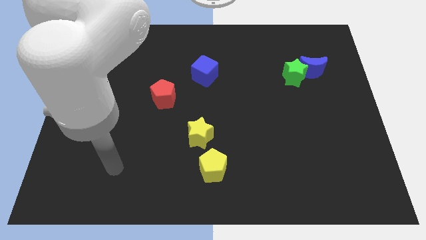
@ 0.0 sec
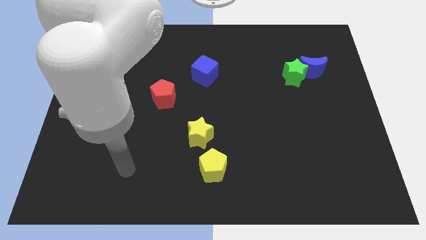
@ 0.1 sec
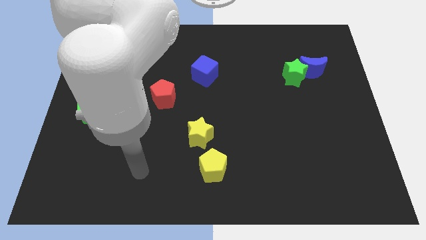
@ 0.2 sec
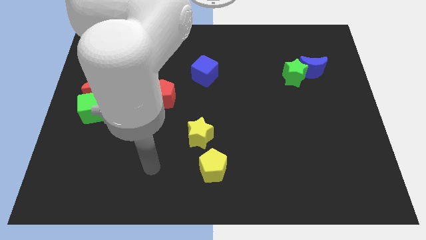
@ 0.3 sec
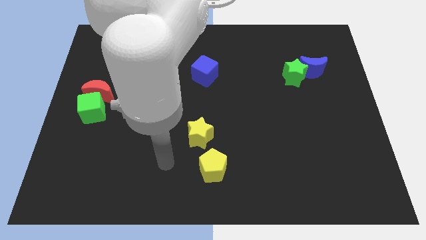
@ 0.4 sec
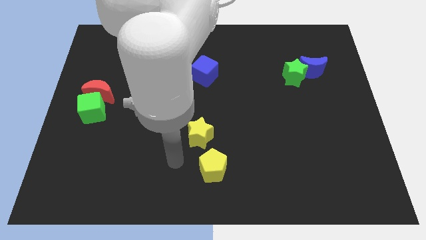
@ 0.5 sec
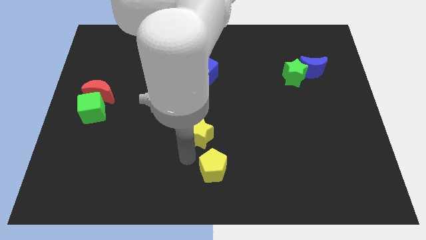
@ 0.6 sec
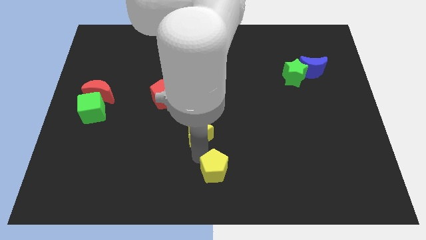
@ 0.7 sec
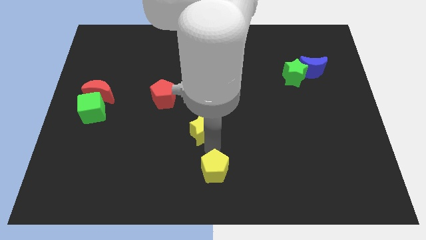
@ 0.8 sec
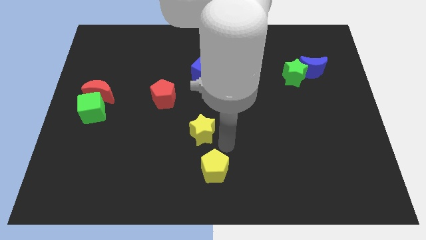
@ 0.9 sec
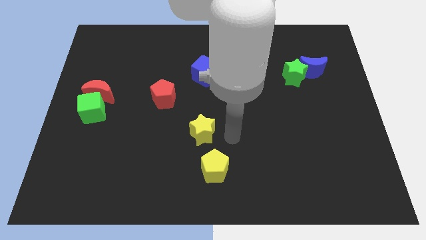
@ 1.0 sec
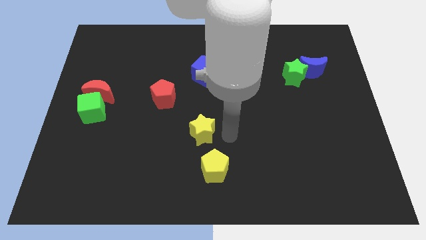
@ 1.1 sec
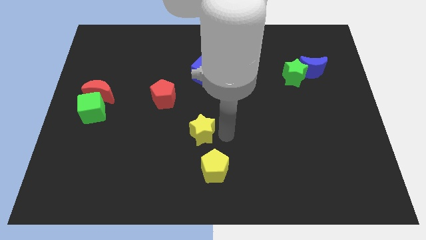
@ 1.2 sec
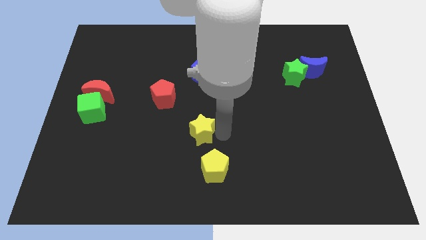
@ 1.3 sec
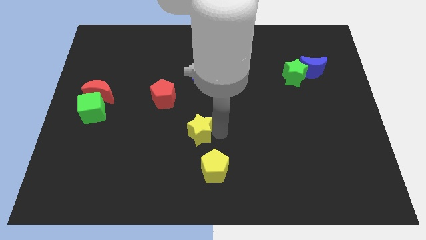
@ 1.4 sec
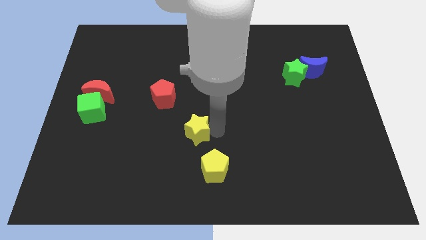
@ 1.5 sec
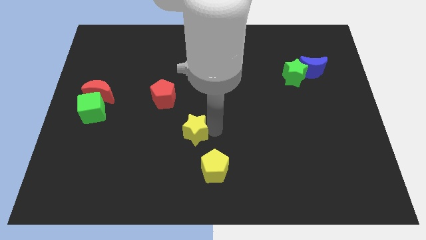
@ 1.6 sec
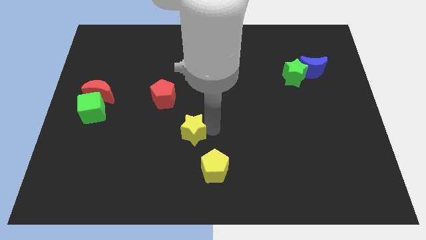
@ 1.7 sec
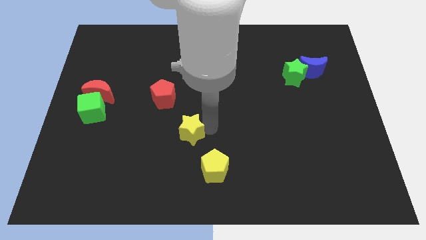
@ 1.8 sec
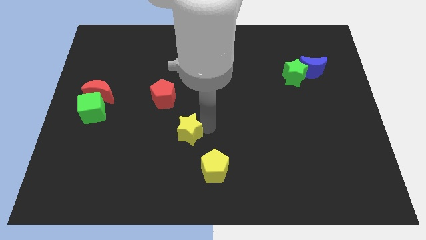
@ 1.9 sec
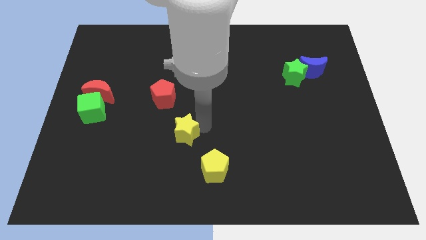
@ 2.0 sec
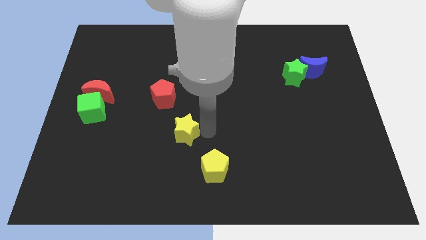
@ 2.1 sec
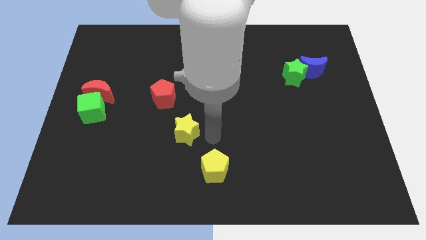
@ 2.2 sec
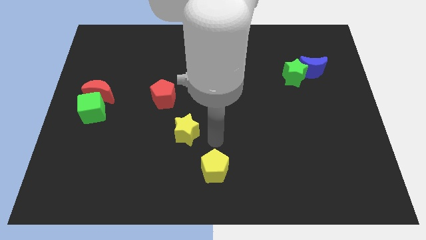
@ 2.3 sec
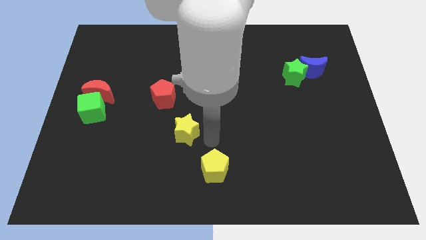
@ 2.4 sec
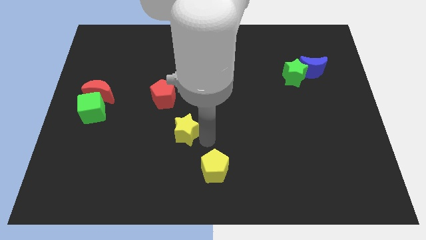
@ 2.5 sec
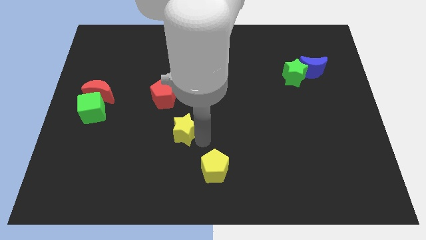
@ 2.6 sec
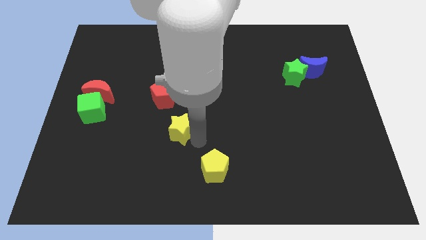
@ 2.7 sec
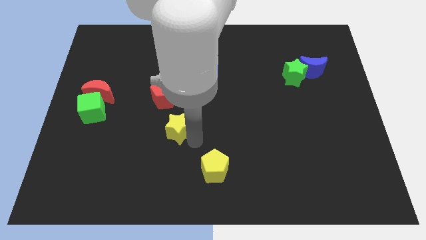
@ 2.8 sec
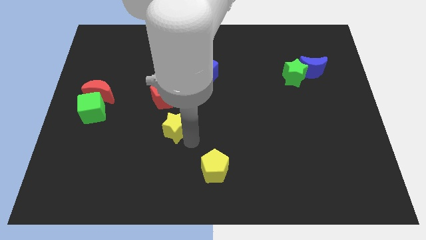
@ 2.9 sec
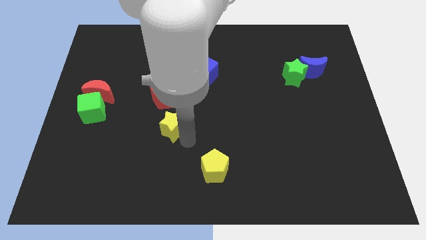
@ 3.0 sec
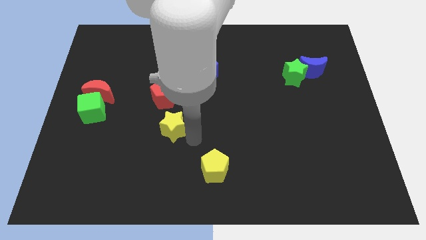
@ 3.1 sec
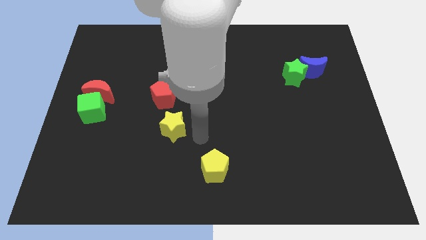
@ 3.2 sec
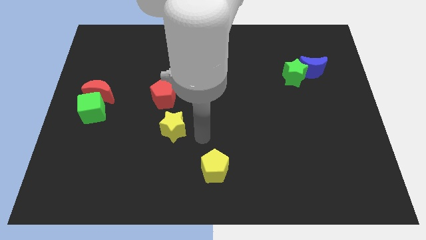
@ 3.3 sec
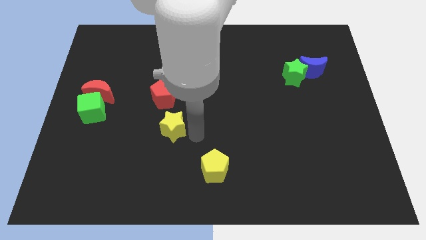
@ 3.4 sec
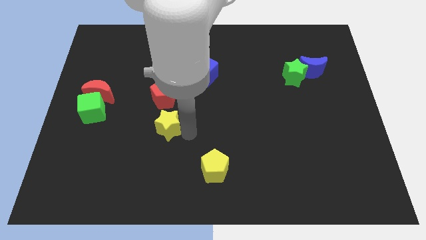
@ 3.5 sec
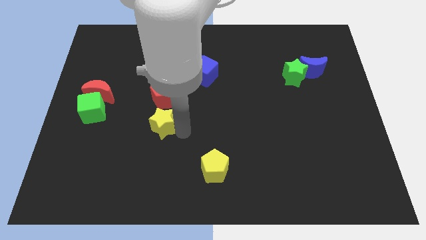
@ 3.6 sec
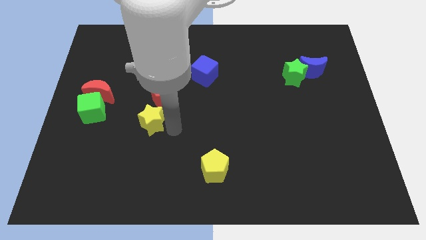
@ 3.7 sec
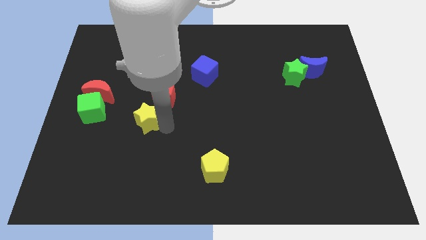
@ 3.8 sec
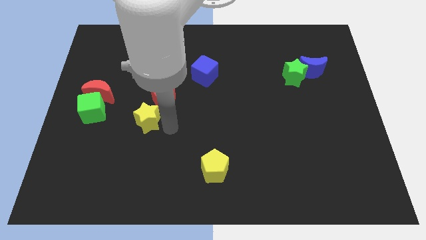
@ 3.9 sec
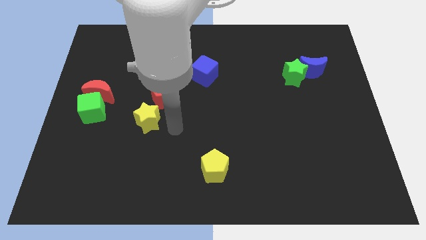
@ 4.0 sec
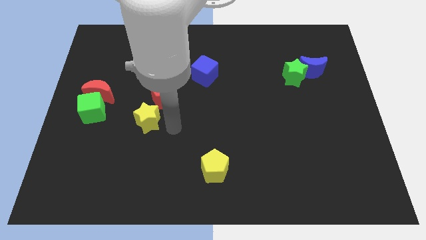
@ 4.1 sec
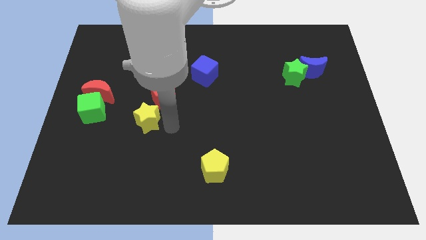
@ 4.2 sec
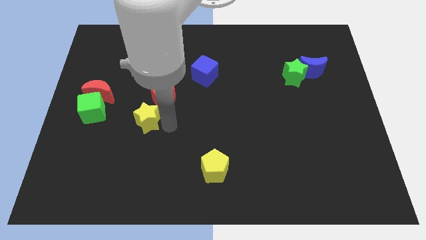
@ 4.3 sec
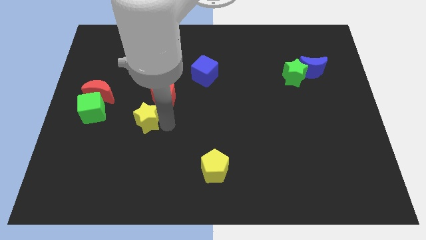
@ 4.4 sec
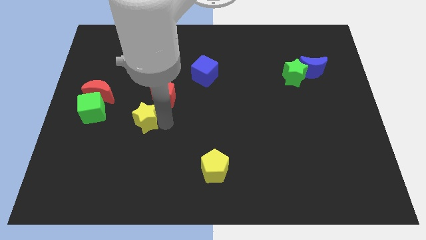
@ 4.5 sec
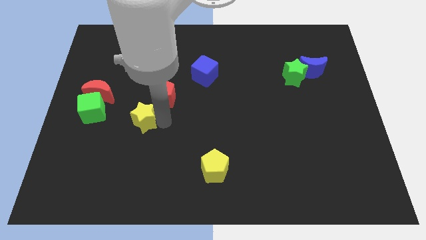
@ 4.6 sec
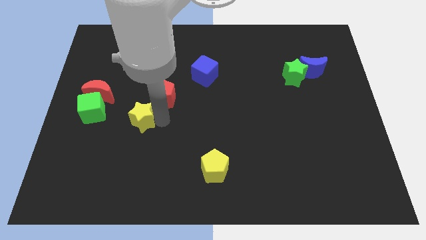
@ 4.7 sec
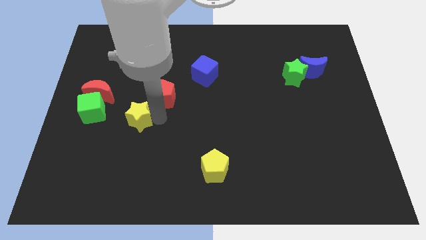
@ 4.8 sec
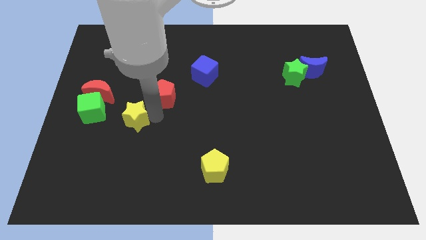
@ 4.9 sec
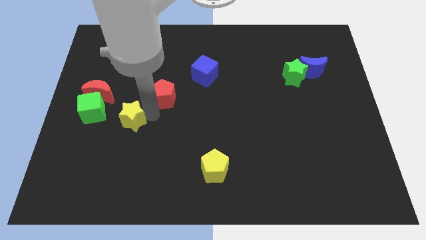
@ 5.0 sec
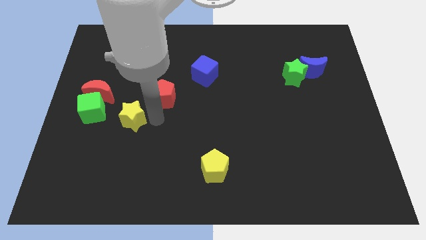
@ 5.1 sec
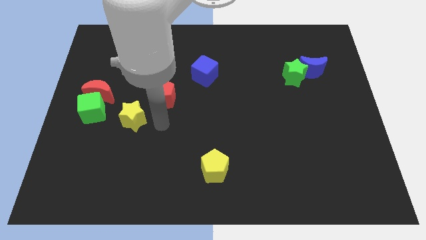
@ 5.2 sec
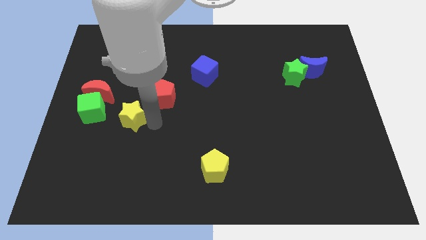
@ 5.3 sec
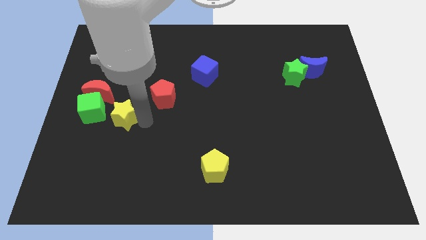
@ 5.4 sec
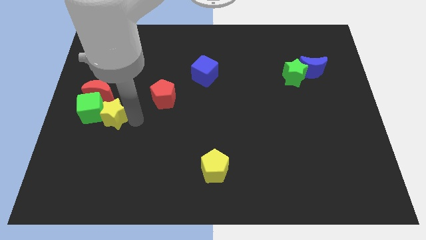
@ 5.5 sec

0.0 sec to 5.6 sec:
push the yellow star towards the green cube

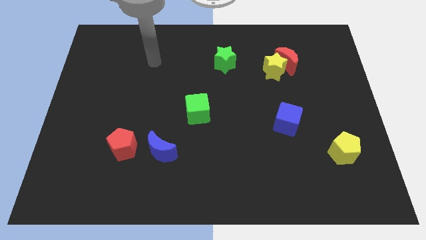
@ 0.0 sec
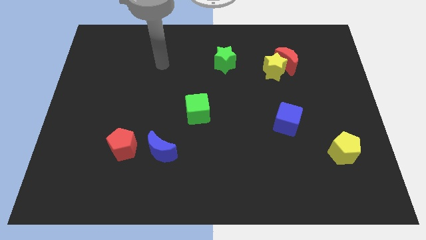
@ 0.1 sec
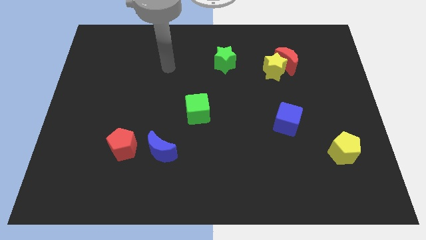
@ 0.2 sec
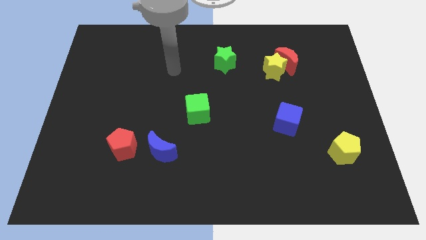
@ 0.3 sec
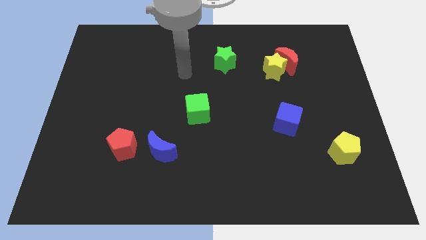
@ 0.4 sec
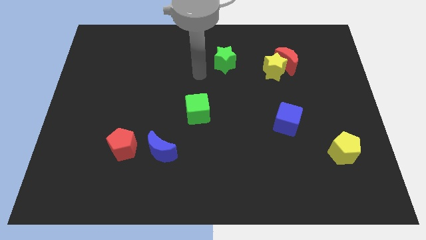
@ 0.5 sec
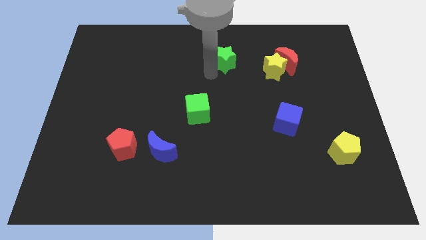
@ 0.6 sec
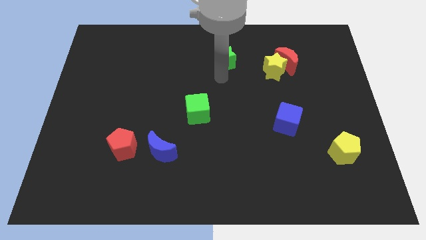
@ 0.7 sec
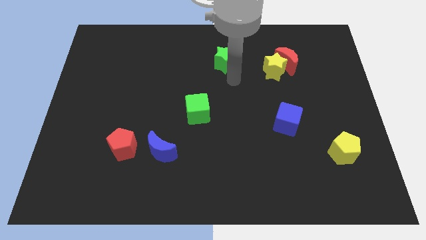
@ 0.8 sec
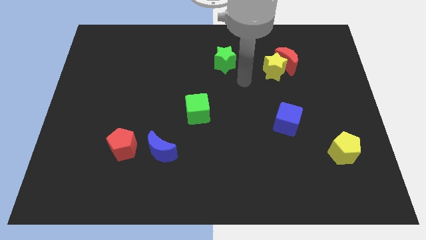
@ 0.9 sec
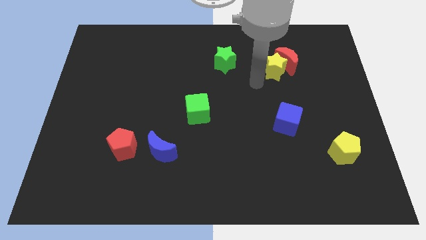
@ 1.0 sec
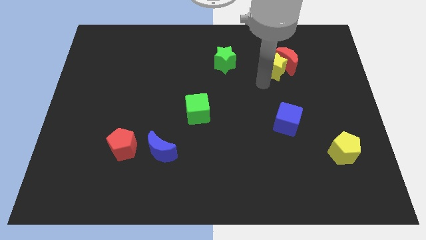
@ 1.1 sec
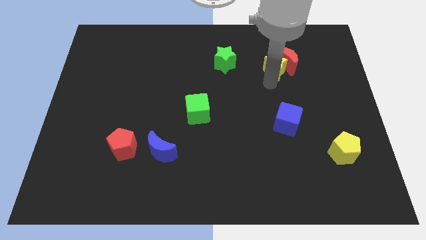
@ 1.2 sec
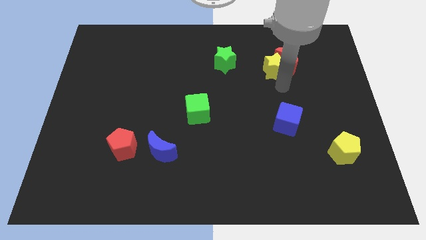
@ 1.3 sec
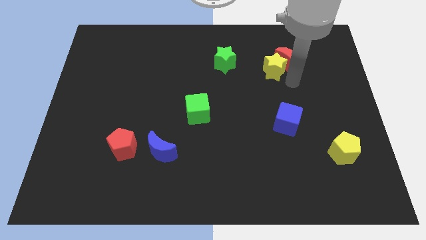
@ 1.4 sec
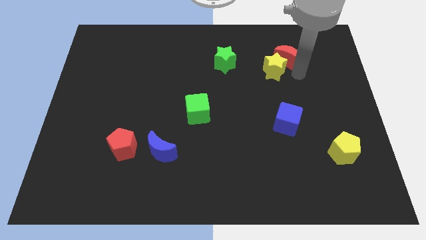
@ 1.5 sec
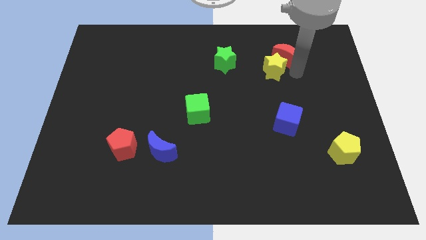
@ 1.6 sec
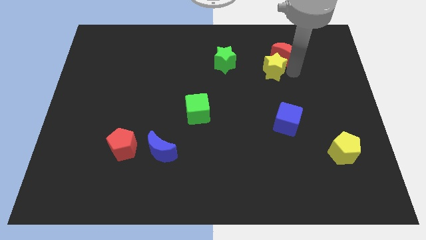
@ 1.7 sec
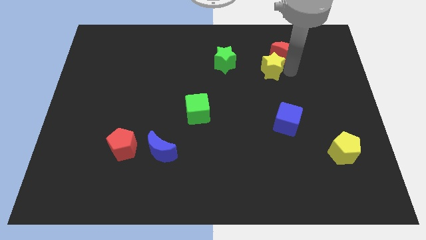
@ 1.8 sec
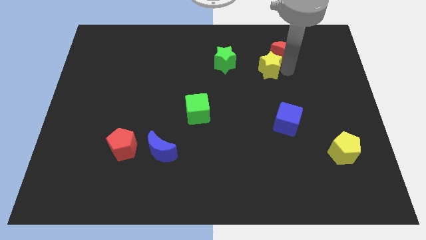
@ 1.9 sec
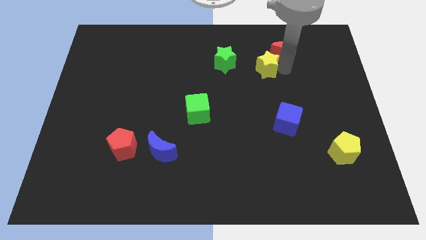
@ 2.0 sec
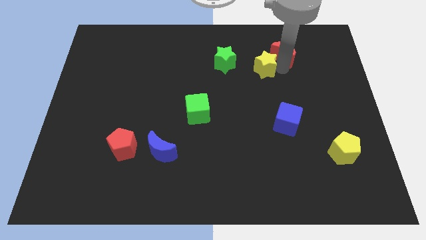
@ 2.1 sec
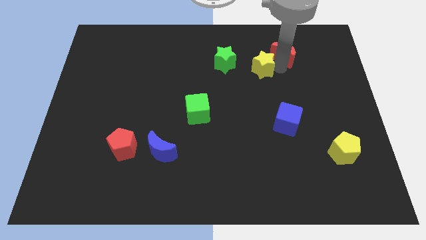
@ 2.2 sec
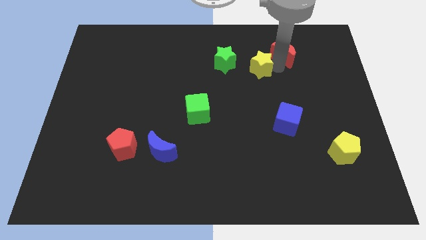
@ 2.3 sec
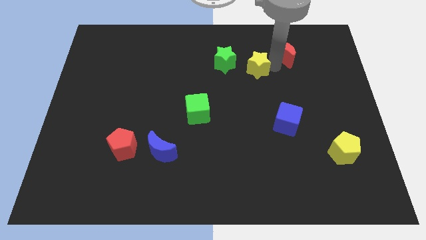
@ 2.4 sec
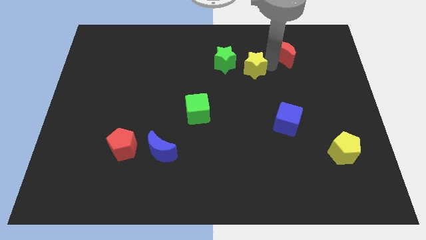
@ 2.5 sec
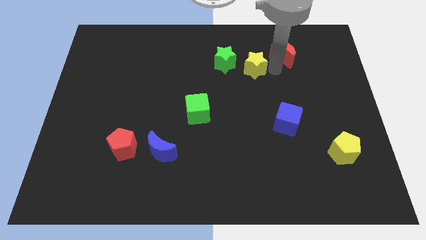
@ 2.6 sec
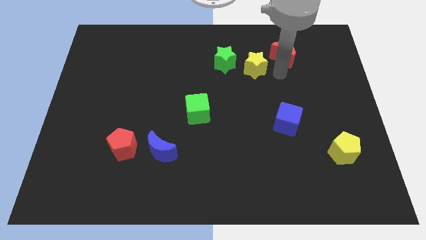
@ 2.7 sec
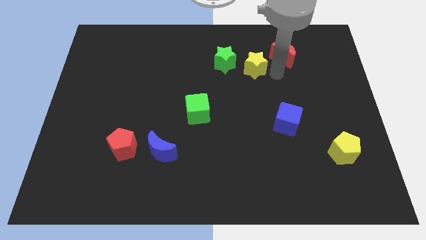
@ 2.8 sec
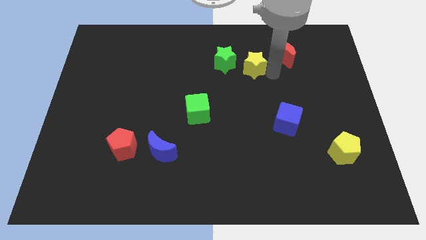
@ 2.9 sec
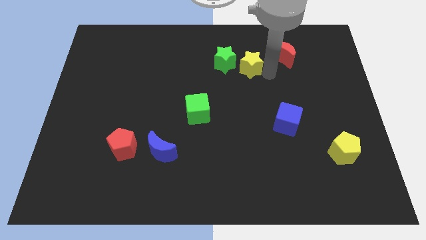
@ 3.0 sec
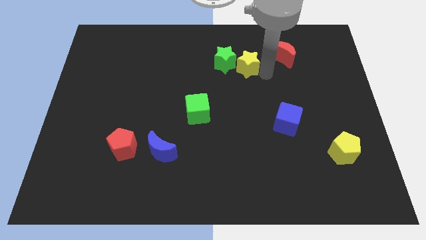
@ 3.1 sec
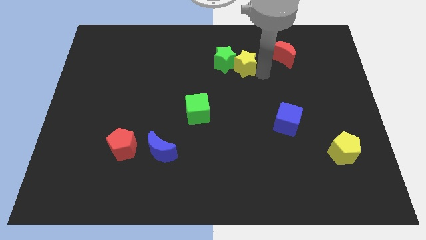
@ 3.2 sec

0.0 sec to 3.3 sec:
move the yellow star close to the green star
